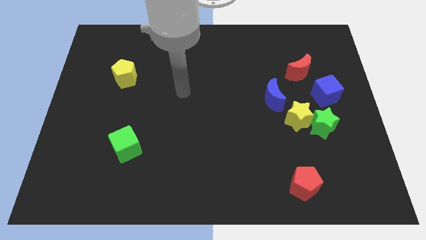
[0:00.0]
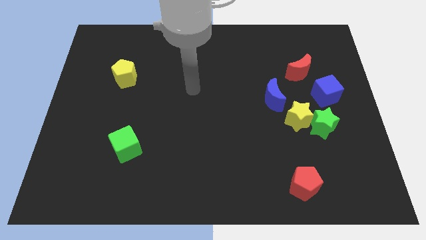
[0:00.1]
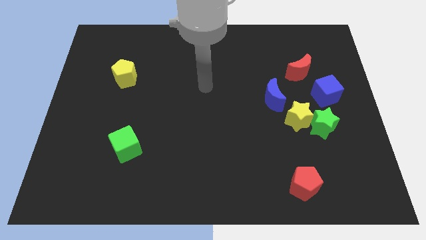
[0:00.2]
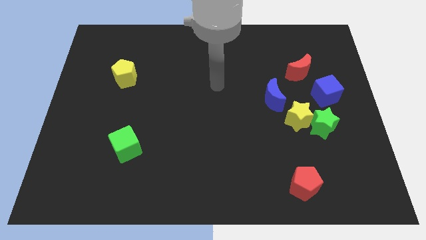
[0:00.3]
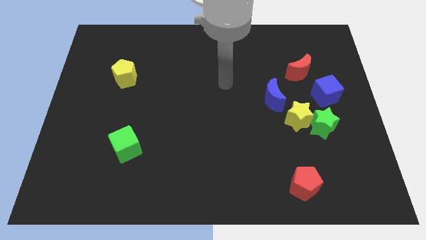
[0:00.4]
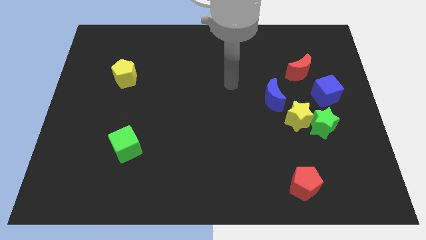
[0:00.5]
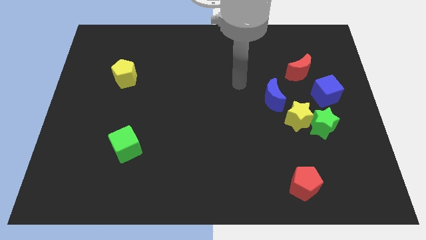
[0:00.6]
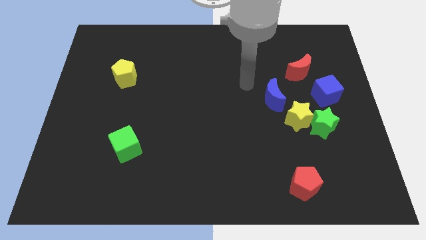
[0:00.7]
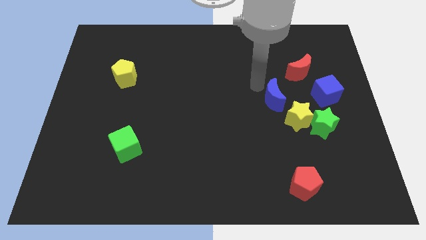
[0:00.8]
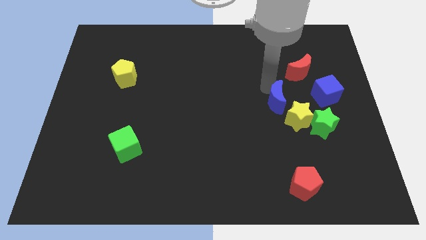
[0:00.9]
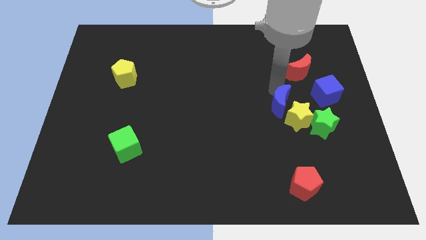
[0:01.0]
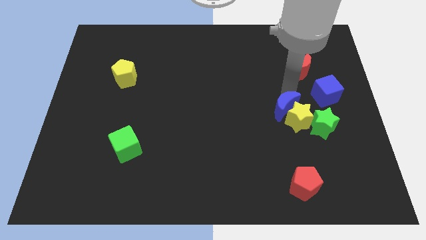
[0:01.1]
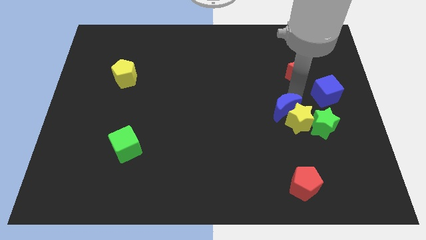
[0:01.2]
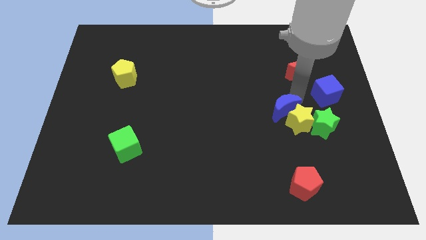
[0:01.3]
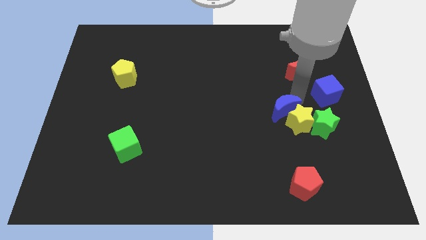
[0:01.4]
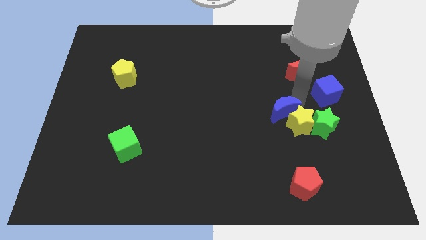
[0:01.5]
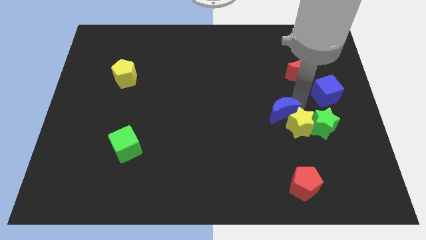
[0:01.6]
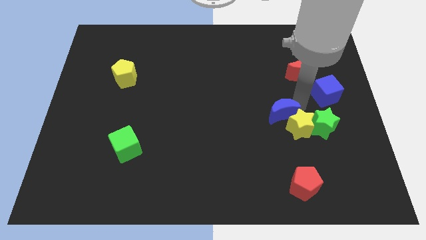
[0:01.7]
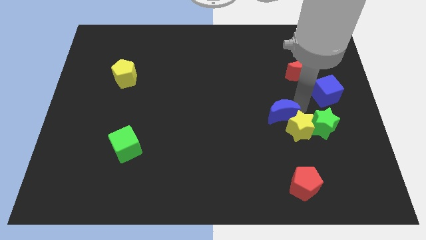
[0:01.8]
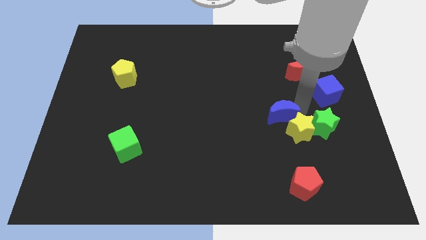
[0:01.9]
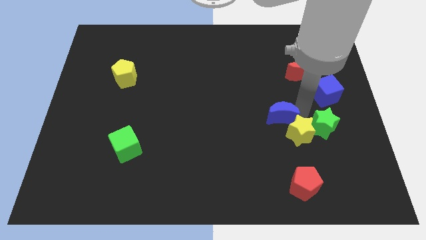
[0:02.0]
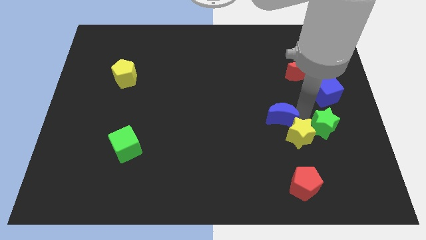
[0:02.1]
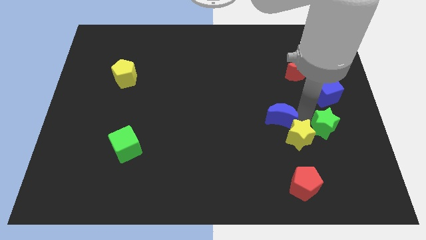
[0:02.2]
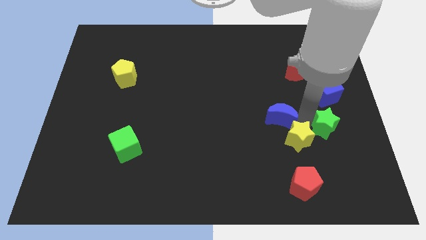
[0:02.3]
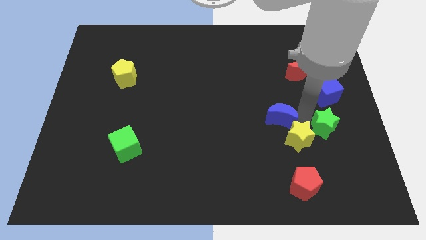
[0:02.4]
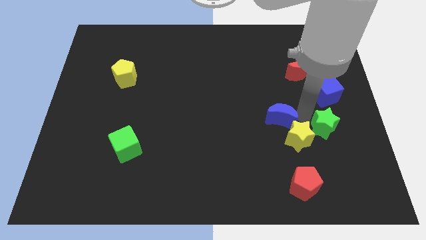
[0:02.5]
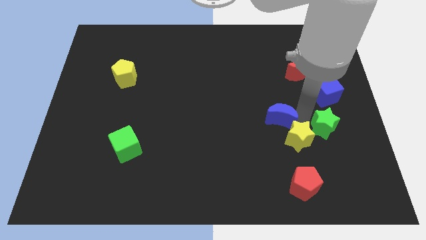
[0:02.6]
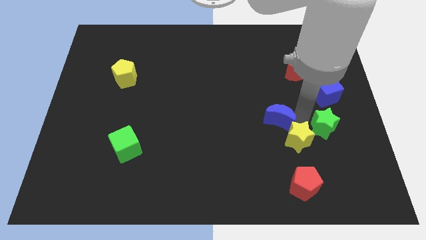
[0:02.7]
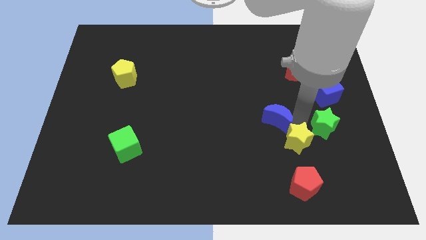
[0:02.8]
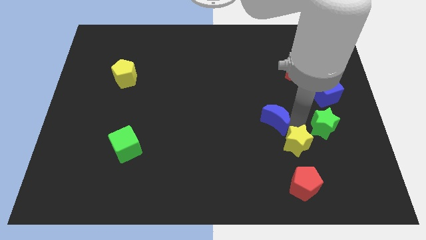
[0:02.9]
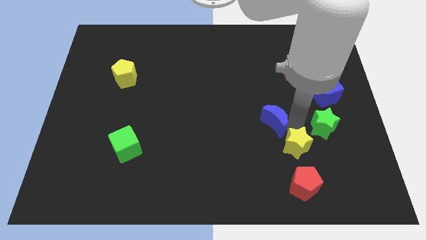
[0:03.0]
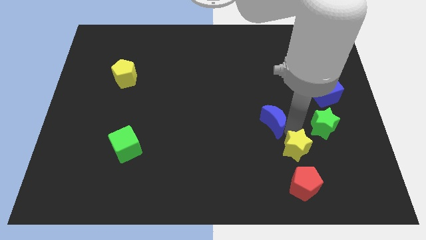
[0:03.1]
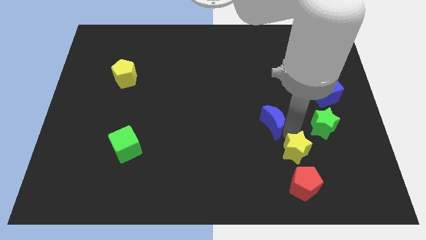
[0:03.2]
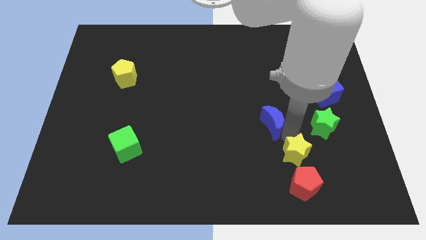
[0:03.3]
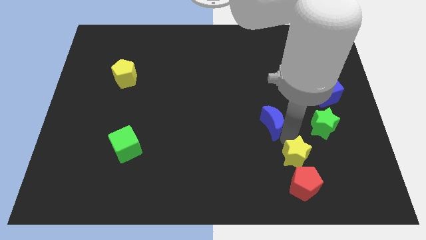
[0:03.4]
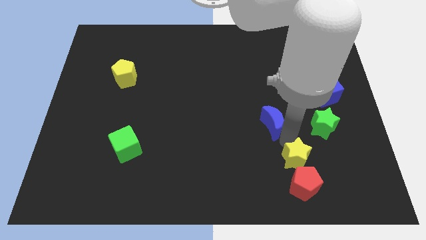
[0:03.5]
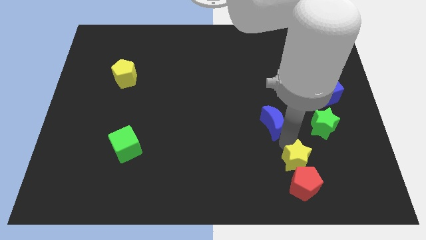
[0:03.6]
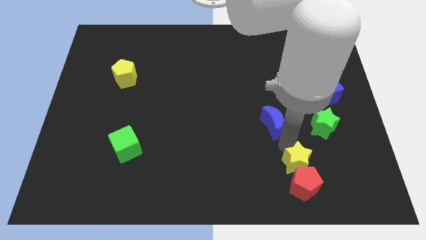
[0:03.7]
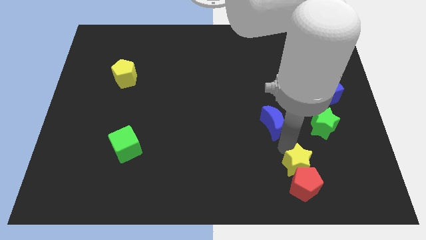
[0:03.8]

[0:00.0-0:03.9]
pull the yellow star apart from the green star and blue moon

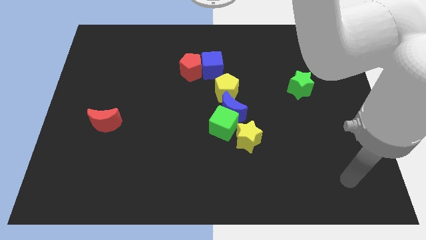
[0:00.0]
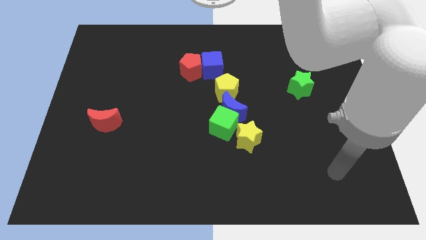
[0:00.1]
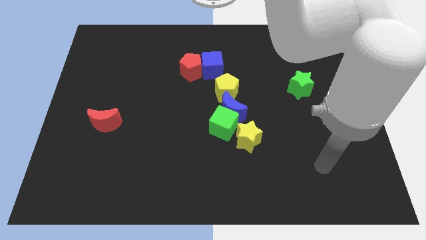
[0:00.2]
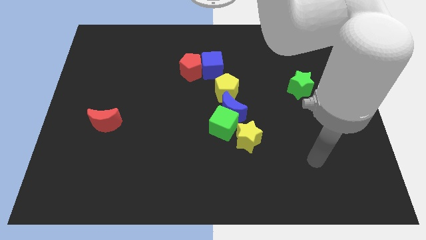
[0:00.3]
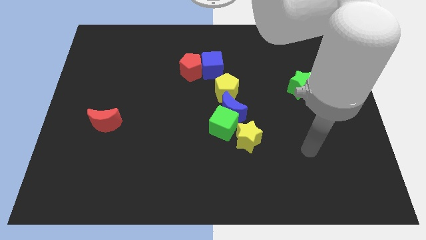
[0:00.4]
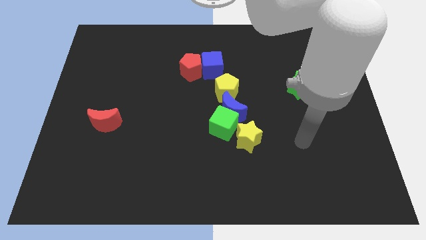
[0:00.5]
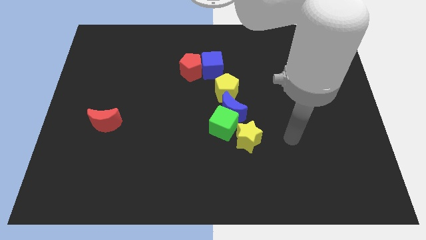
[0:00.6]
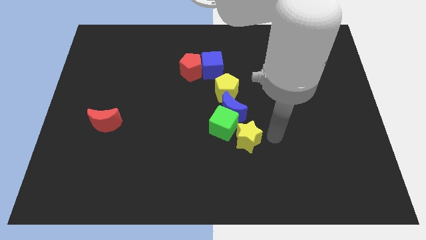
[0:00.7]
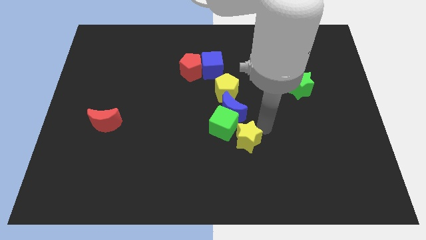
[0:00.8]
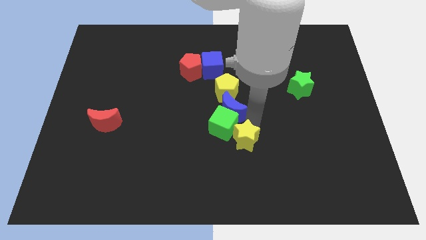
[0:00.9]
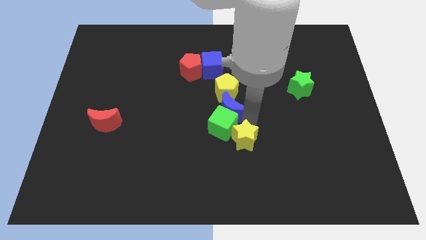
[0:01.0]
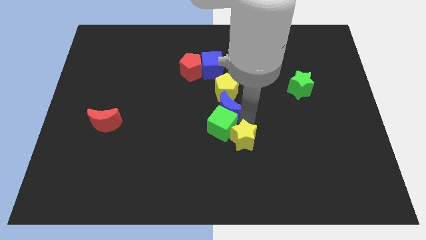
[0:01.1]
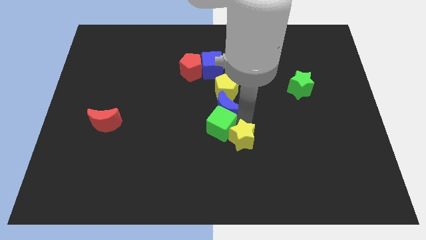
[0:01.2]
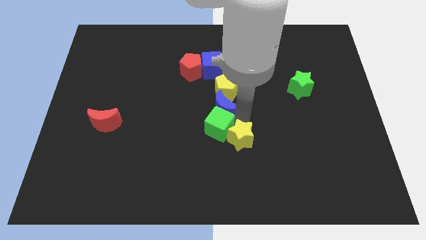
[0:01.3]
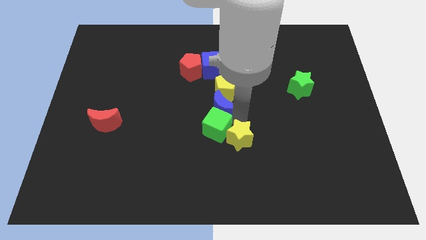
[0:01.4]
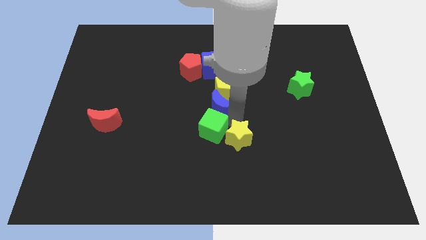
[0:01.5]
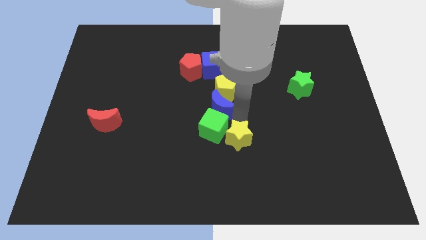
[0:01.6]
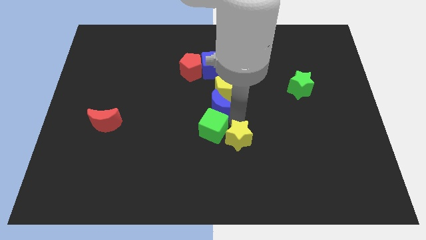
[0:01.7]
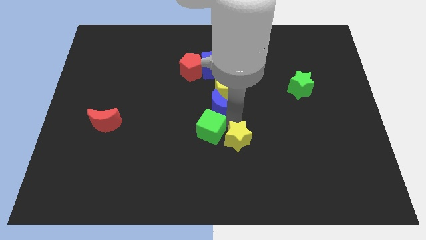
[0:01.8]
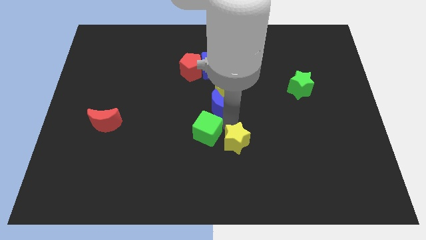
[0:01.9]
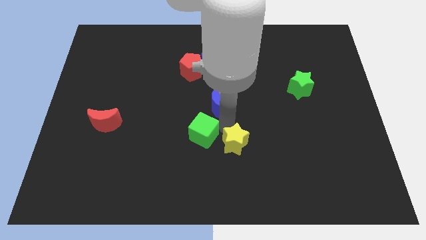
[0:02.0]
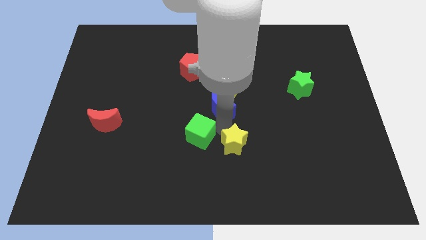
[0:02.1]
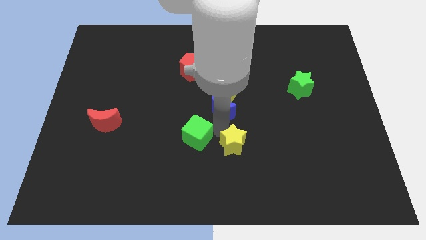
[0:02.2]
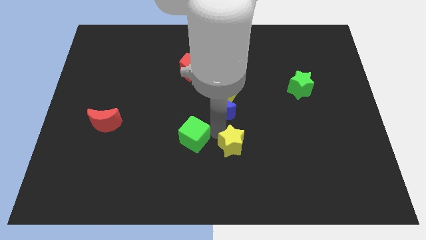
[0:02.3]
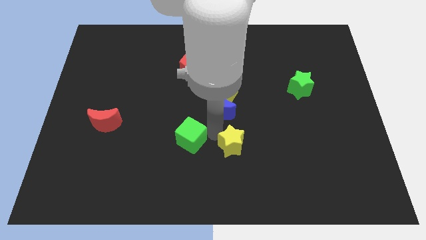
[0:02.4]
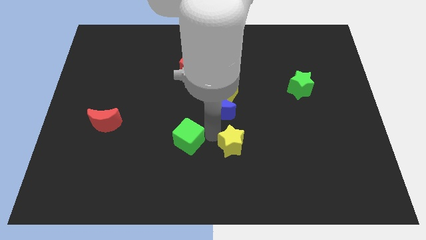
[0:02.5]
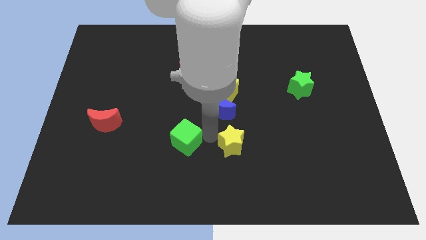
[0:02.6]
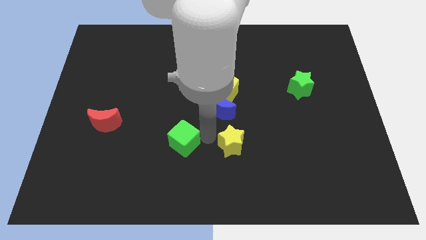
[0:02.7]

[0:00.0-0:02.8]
move the green cube away from the blue moon and yellow star

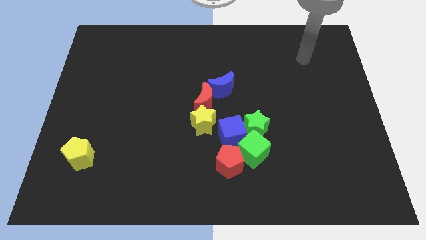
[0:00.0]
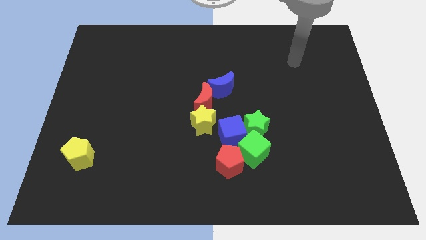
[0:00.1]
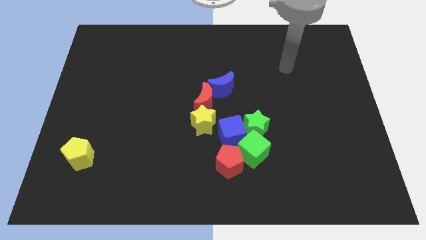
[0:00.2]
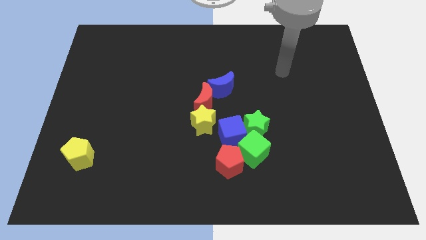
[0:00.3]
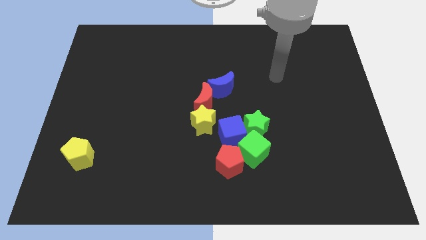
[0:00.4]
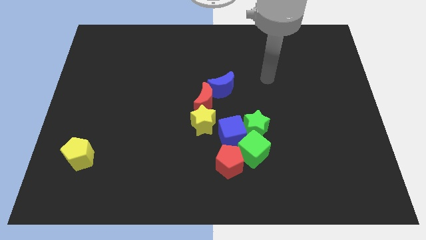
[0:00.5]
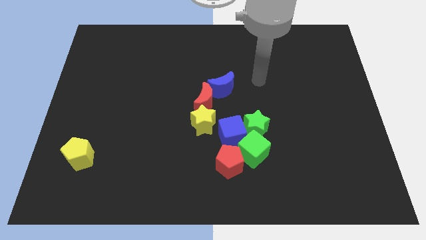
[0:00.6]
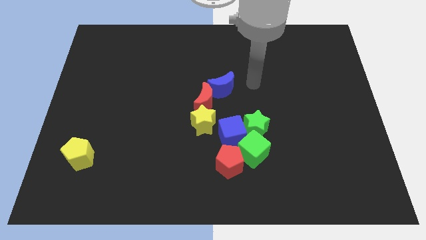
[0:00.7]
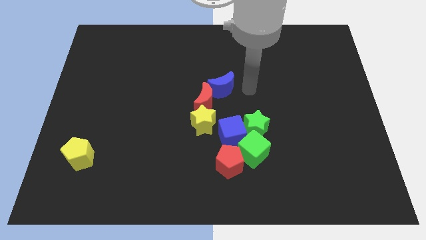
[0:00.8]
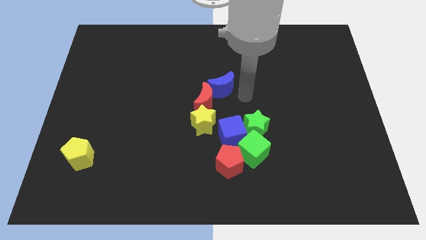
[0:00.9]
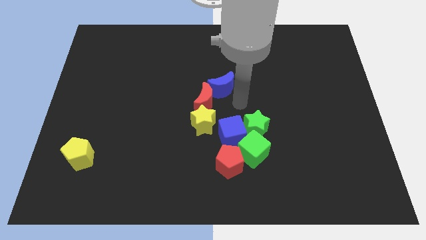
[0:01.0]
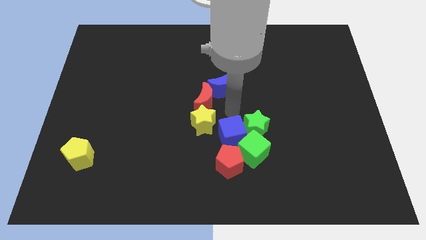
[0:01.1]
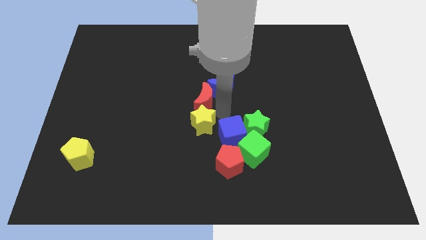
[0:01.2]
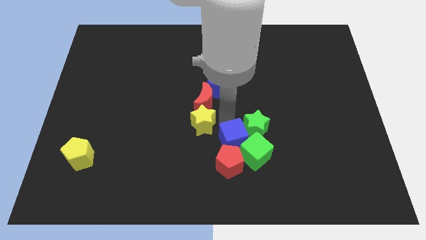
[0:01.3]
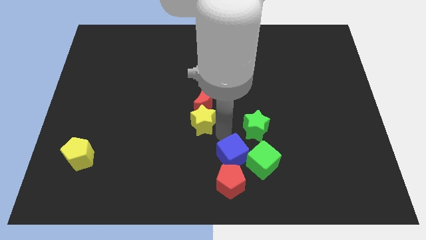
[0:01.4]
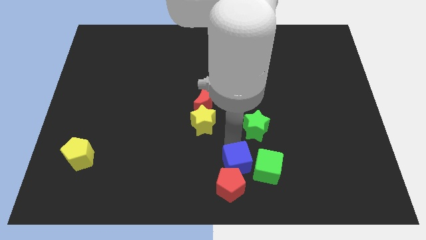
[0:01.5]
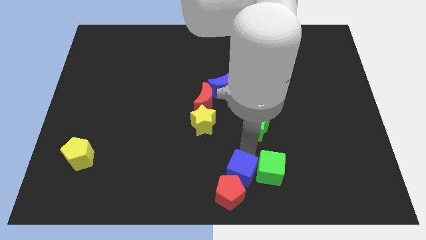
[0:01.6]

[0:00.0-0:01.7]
move the green star away from the blue cube and green cube

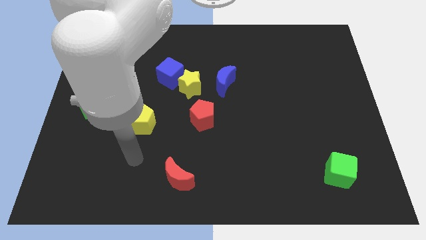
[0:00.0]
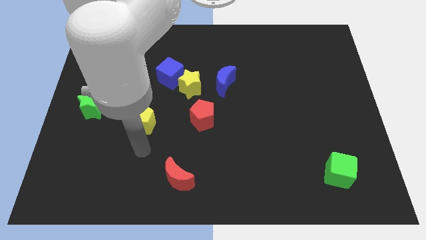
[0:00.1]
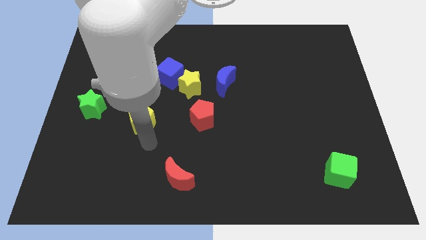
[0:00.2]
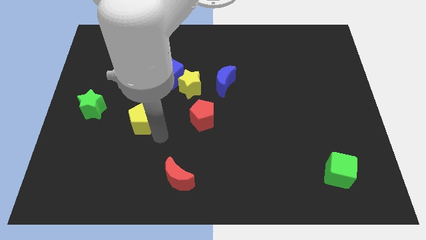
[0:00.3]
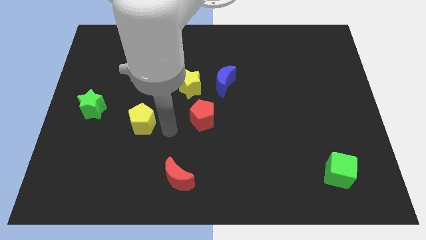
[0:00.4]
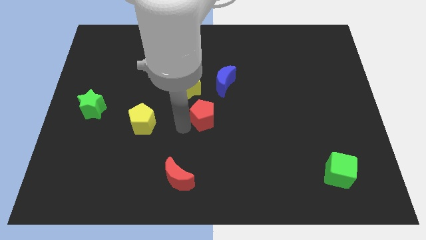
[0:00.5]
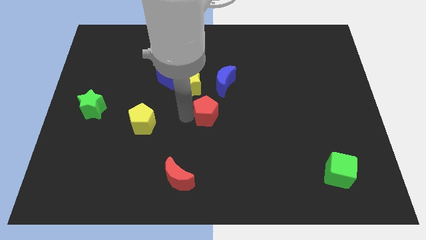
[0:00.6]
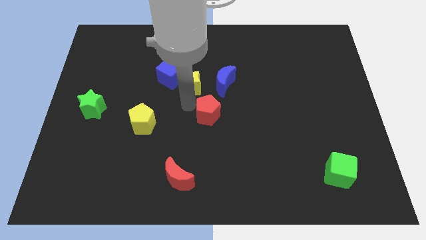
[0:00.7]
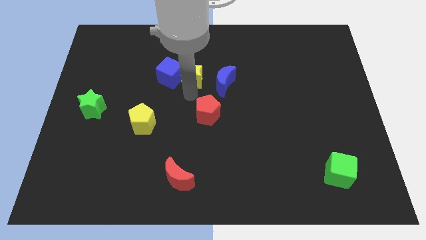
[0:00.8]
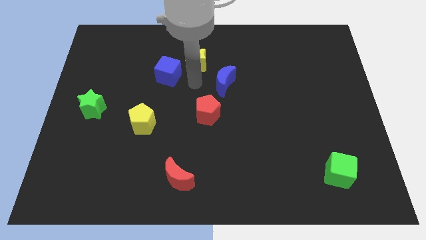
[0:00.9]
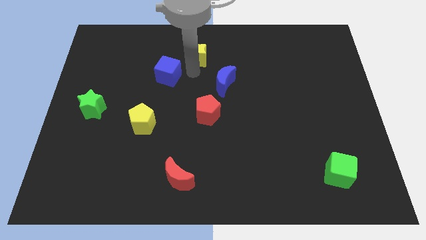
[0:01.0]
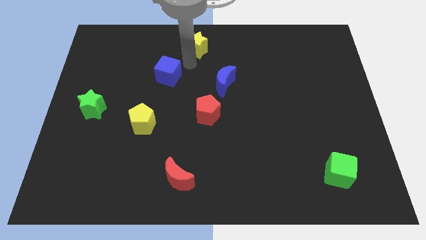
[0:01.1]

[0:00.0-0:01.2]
separate the blue cube from the yellow star
